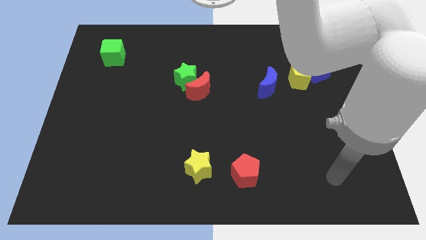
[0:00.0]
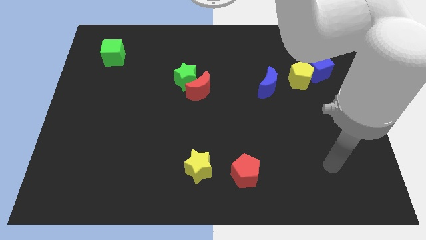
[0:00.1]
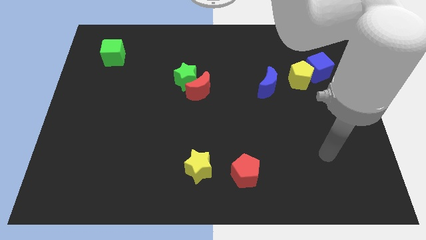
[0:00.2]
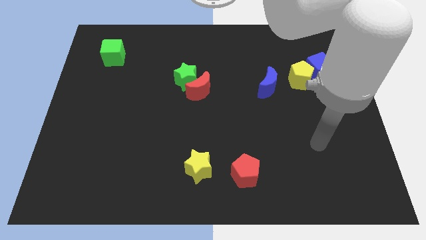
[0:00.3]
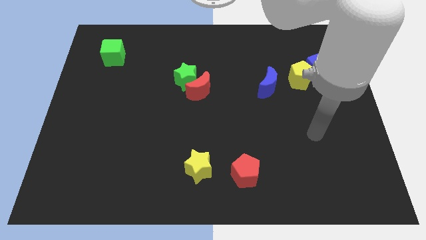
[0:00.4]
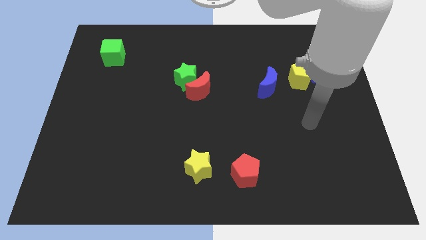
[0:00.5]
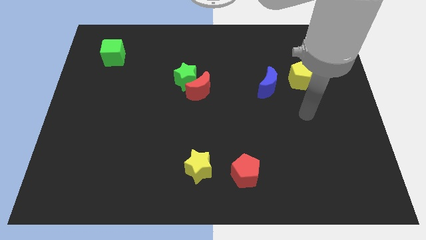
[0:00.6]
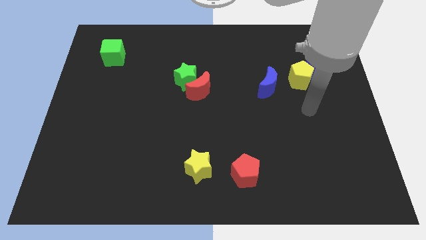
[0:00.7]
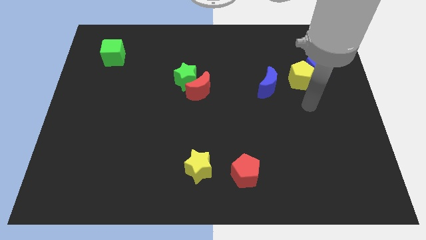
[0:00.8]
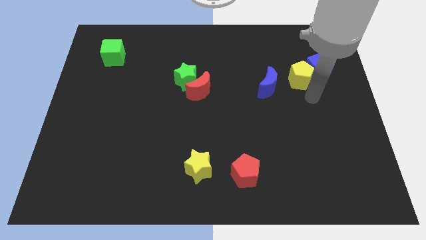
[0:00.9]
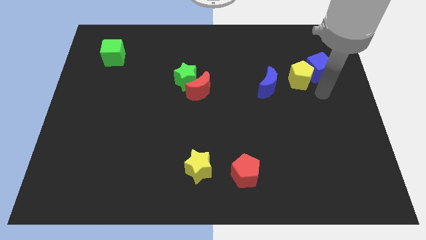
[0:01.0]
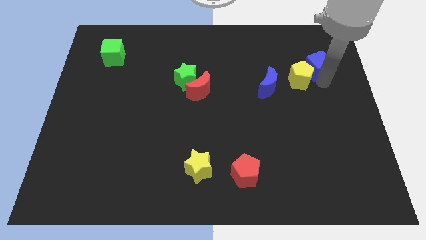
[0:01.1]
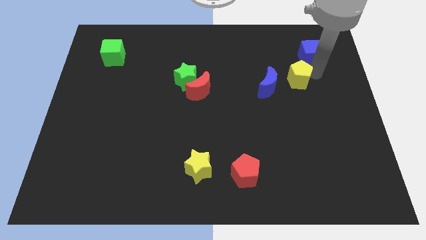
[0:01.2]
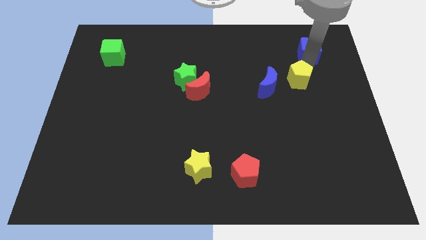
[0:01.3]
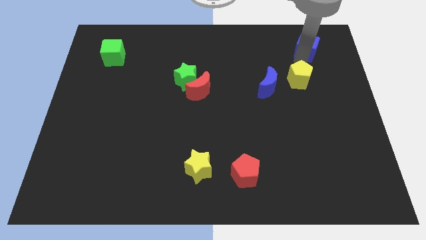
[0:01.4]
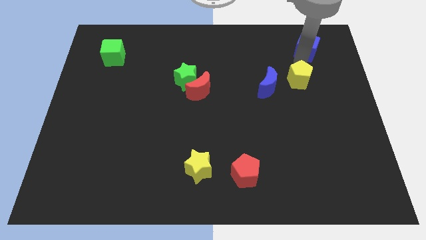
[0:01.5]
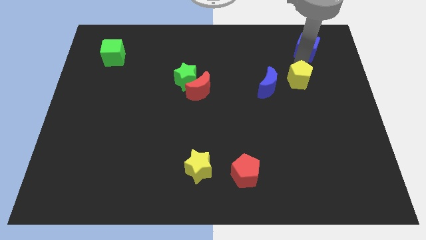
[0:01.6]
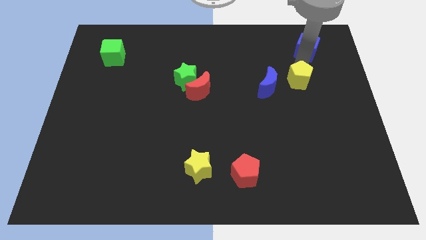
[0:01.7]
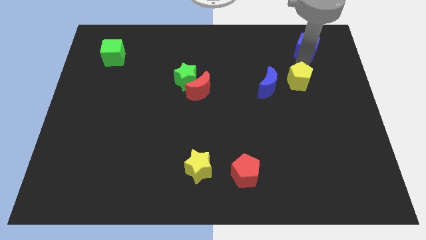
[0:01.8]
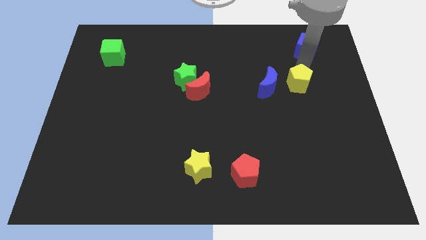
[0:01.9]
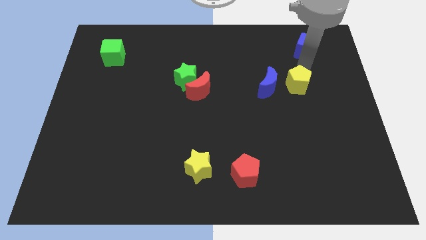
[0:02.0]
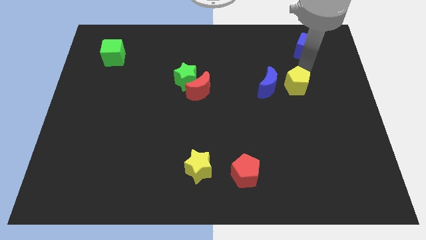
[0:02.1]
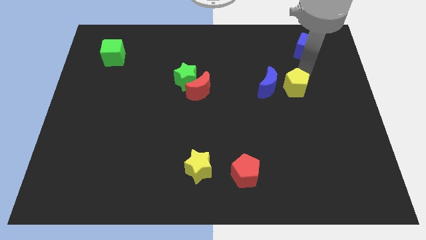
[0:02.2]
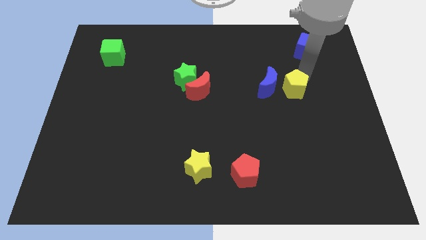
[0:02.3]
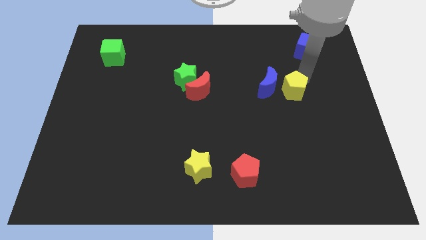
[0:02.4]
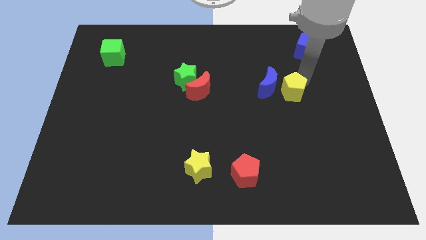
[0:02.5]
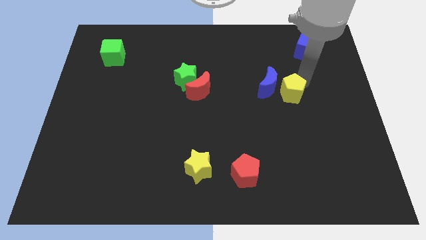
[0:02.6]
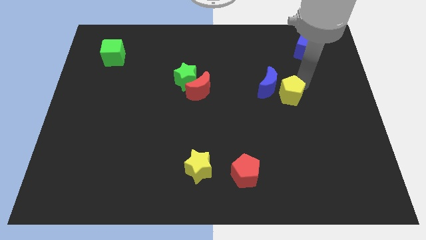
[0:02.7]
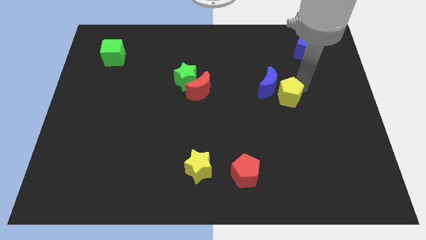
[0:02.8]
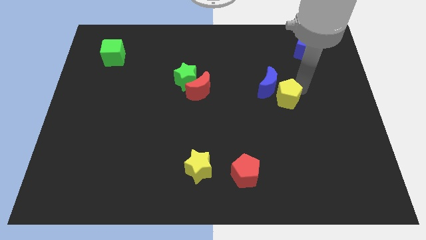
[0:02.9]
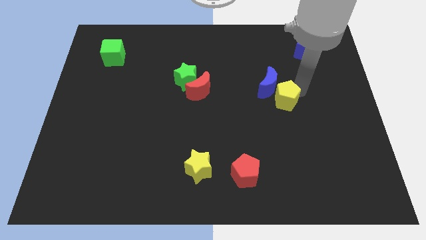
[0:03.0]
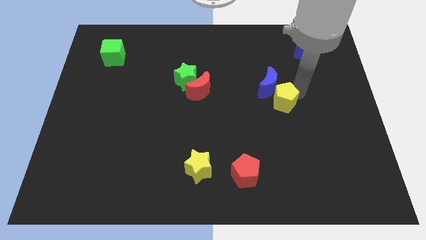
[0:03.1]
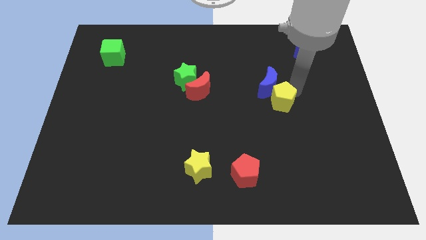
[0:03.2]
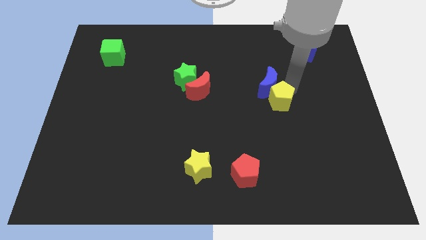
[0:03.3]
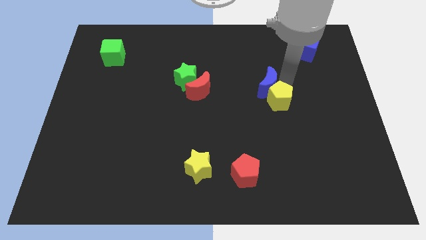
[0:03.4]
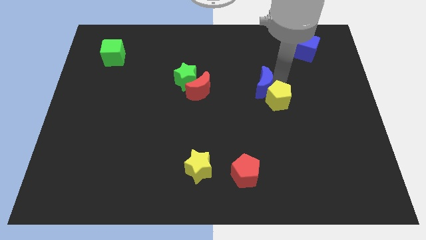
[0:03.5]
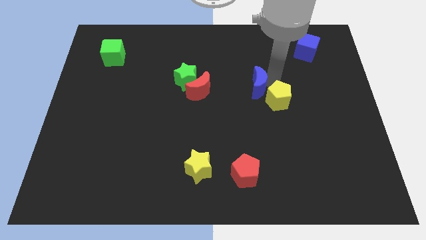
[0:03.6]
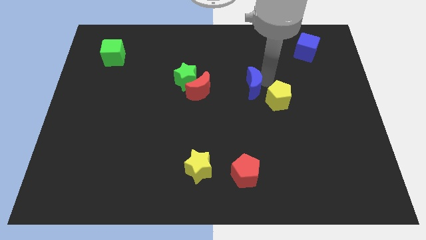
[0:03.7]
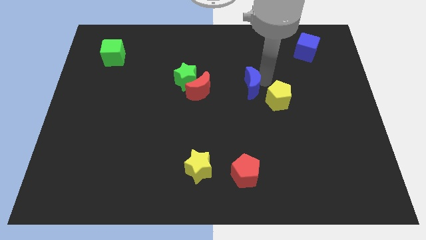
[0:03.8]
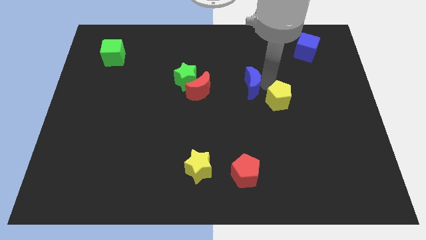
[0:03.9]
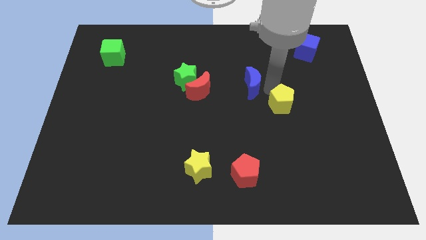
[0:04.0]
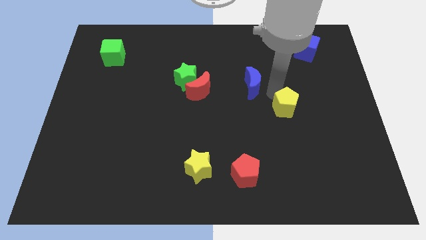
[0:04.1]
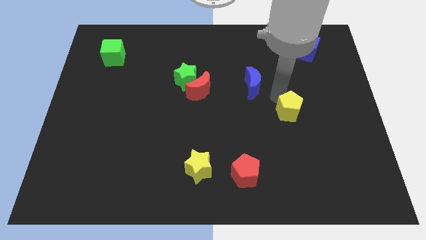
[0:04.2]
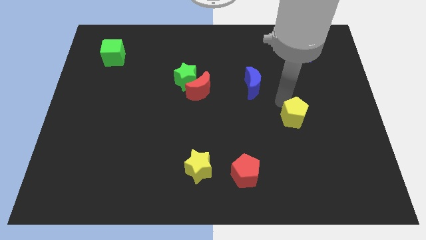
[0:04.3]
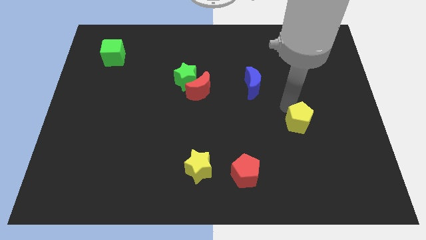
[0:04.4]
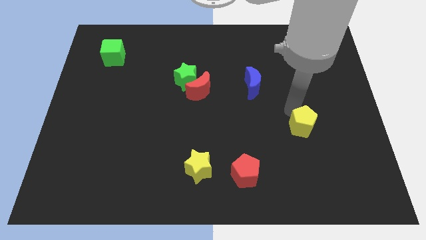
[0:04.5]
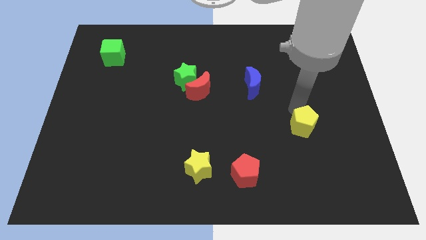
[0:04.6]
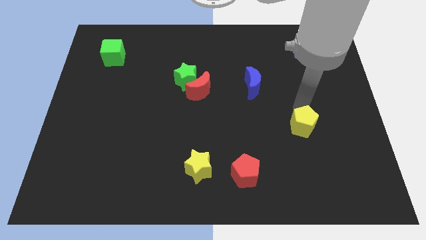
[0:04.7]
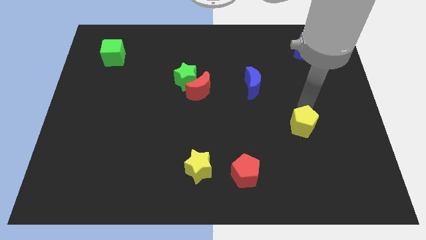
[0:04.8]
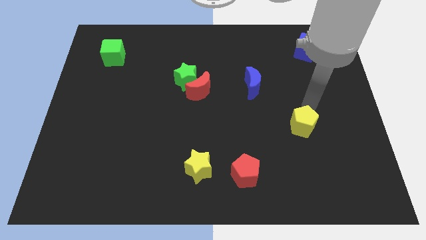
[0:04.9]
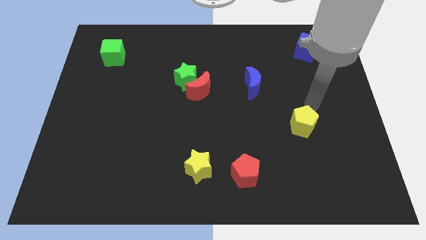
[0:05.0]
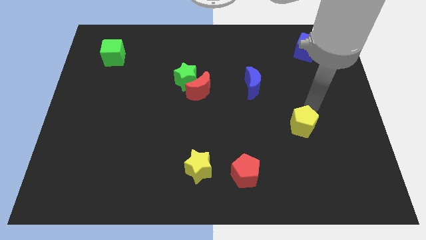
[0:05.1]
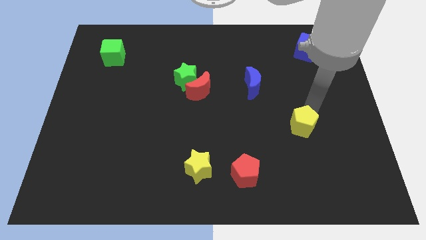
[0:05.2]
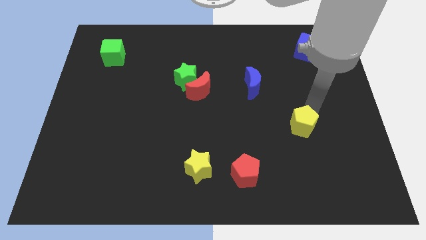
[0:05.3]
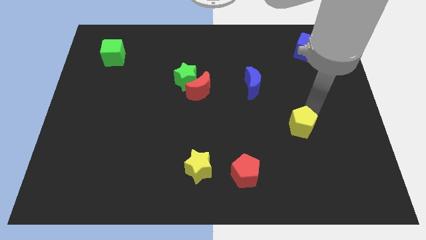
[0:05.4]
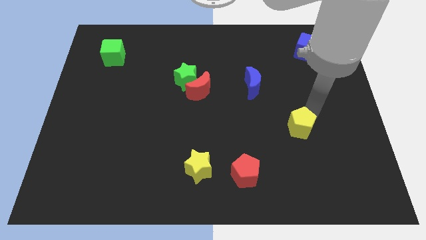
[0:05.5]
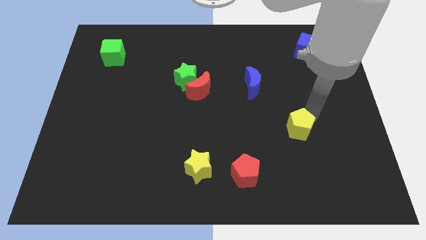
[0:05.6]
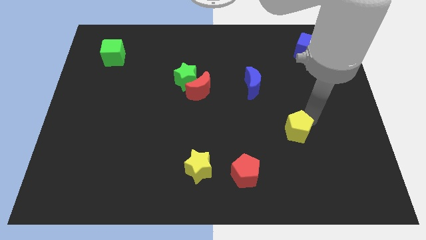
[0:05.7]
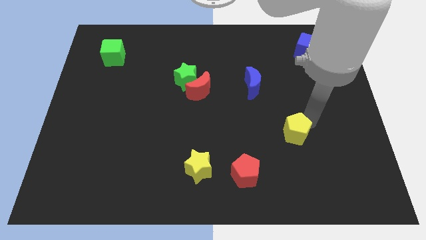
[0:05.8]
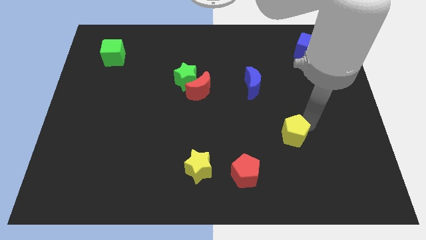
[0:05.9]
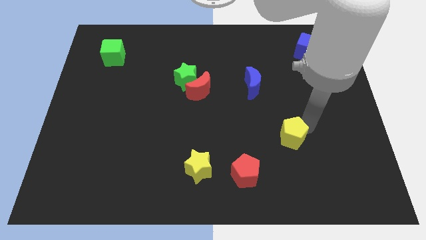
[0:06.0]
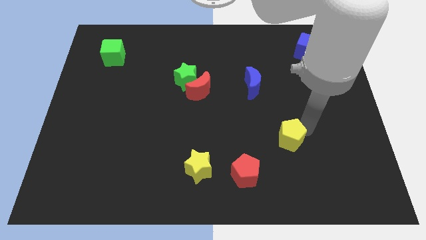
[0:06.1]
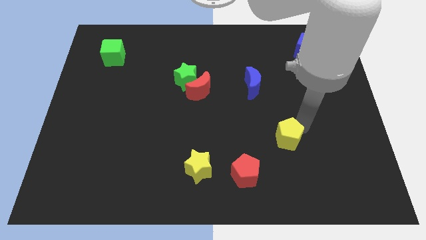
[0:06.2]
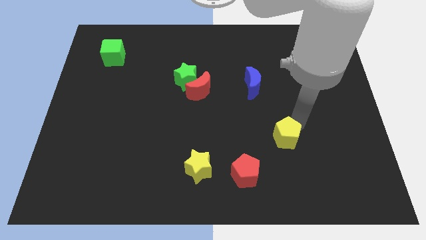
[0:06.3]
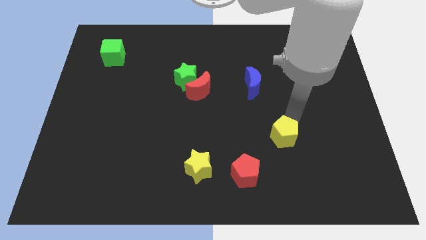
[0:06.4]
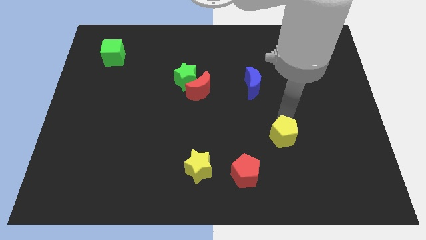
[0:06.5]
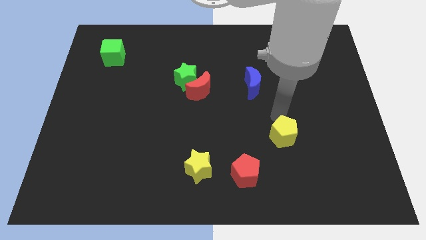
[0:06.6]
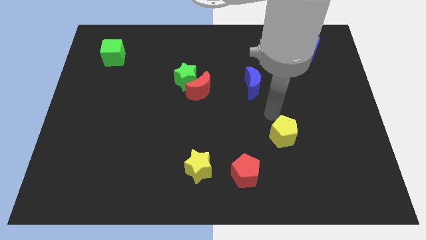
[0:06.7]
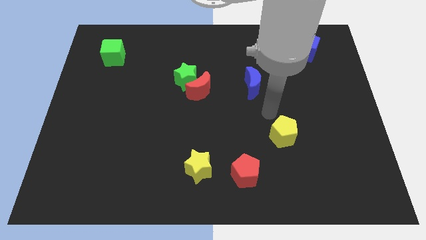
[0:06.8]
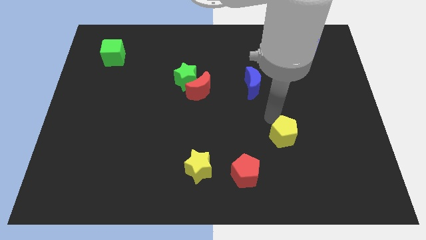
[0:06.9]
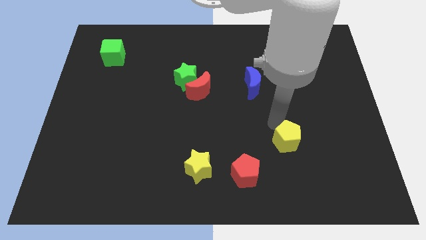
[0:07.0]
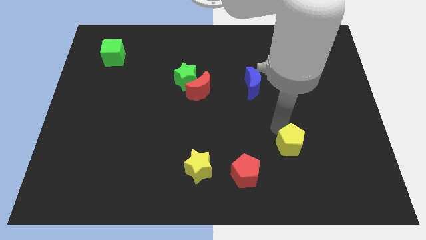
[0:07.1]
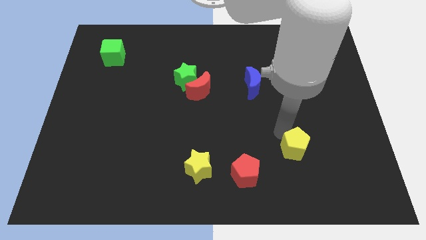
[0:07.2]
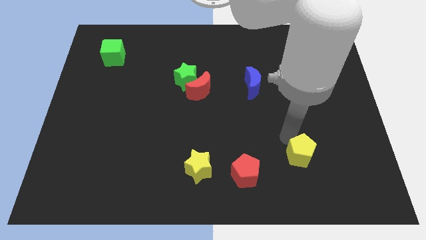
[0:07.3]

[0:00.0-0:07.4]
move the yellow pentagon to the right of the red pentagon

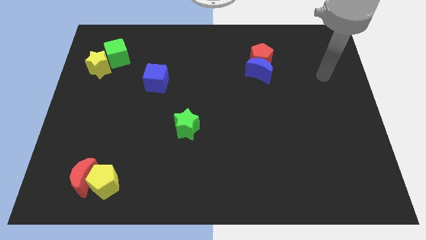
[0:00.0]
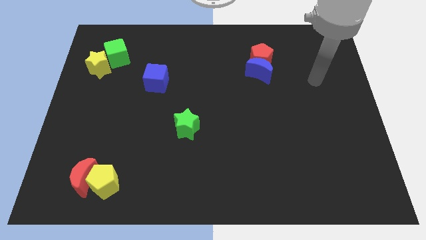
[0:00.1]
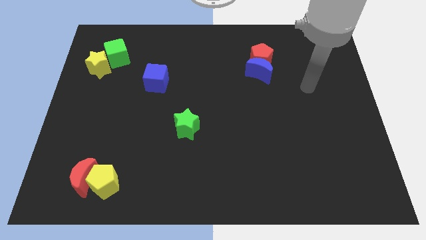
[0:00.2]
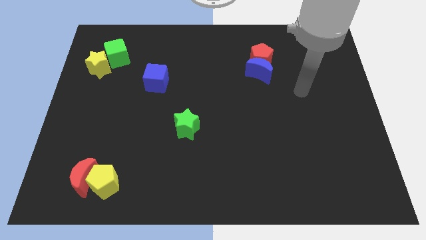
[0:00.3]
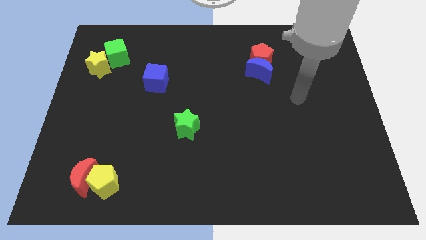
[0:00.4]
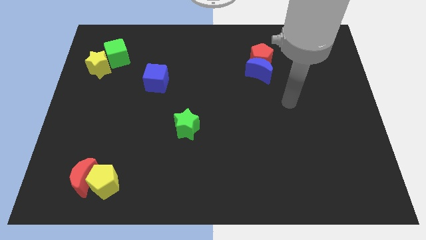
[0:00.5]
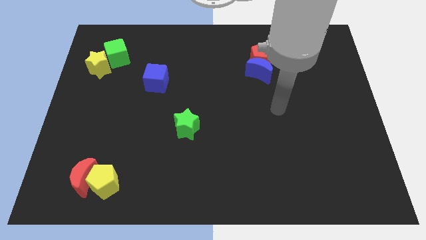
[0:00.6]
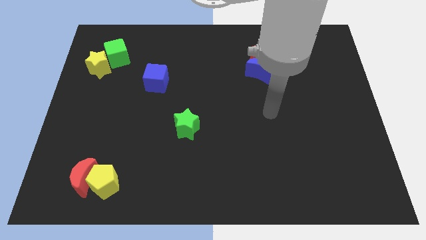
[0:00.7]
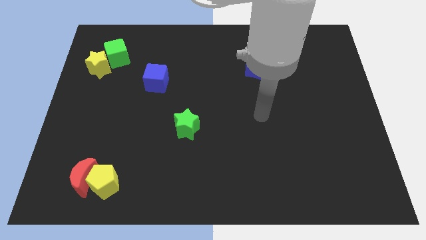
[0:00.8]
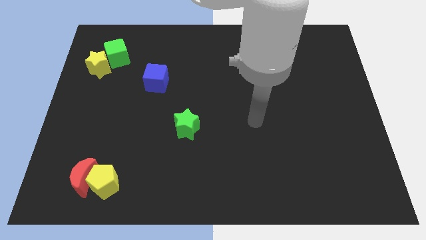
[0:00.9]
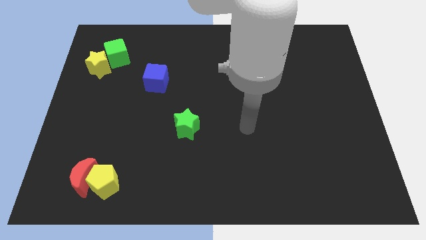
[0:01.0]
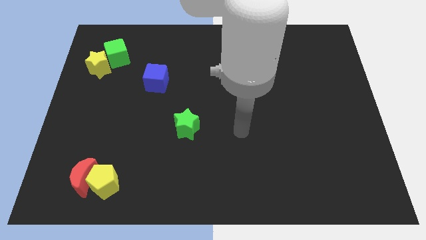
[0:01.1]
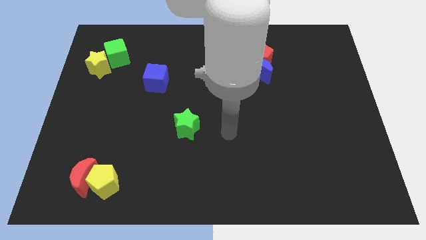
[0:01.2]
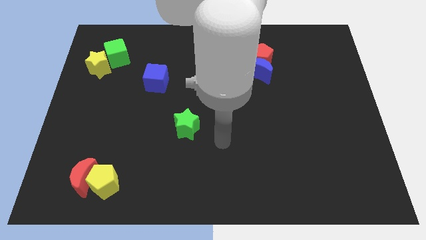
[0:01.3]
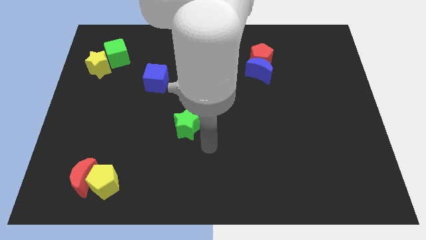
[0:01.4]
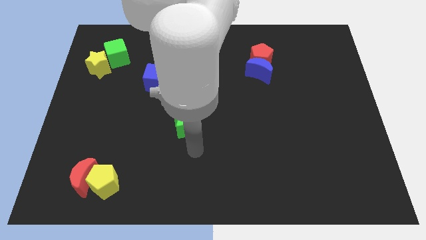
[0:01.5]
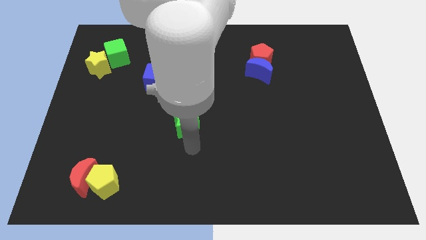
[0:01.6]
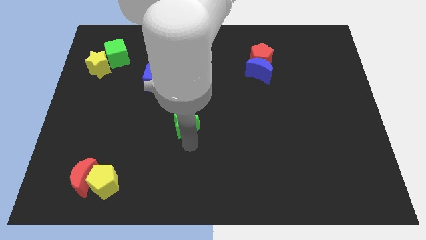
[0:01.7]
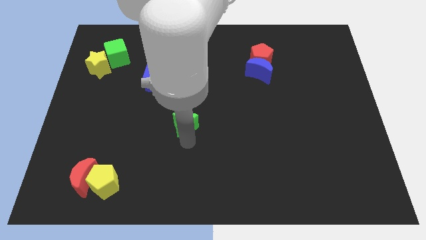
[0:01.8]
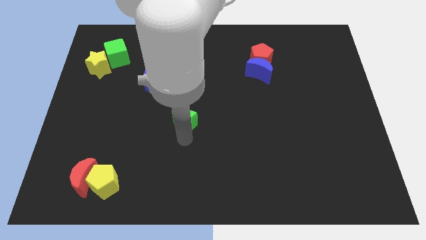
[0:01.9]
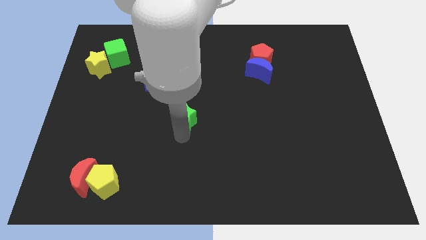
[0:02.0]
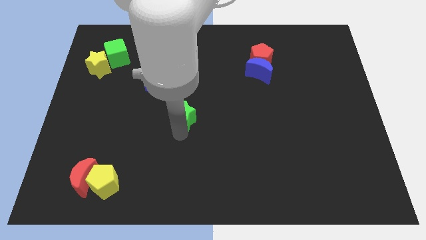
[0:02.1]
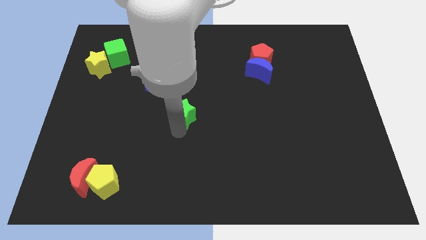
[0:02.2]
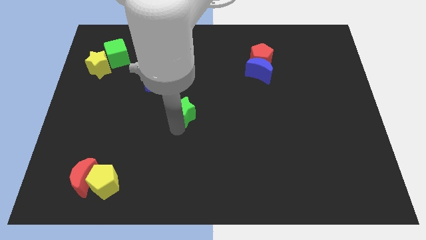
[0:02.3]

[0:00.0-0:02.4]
slide the green star to the bottom right side of the blue cube
